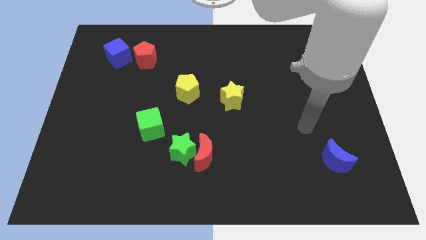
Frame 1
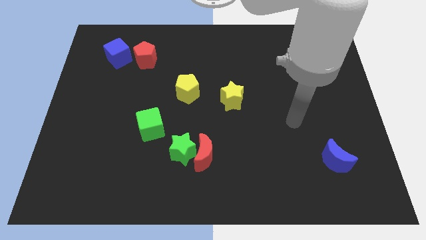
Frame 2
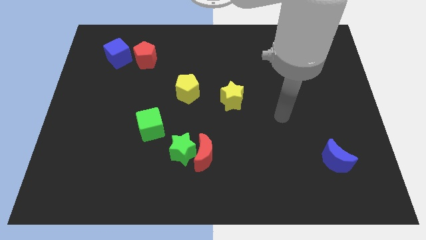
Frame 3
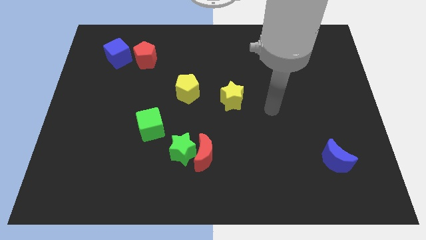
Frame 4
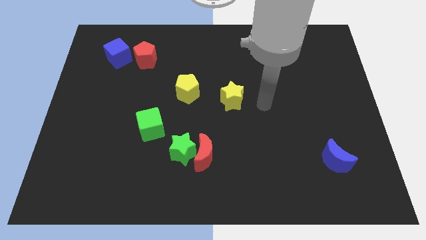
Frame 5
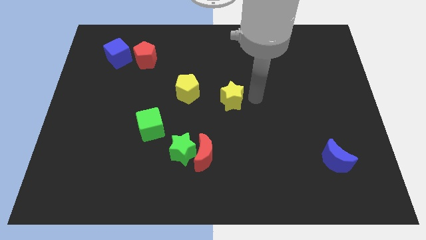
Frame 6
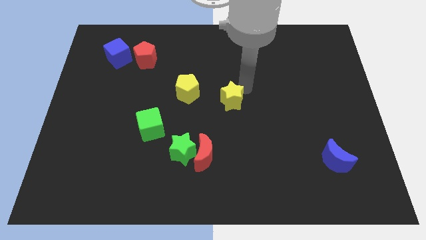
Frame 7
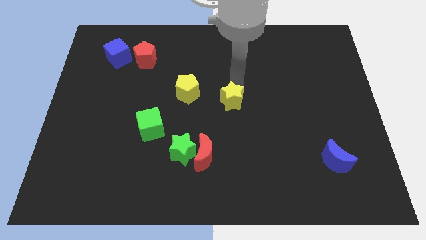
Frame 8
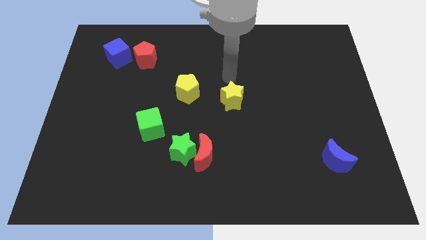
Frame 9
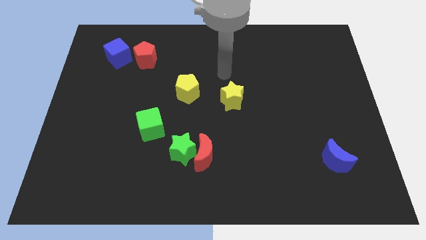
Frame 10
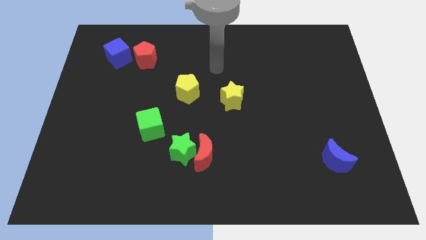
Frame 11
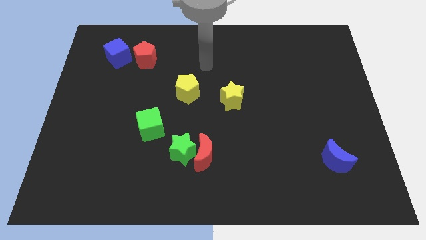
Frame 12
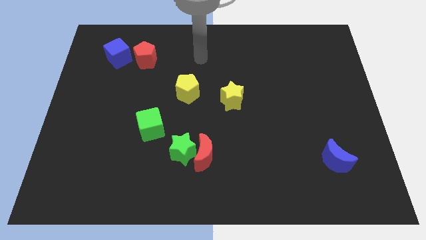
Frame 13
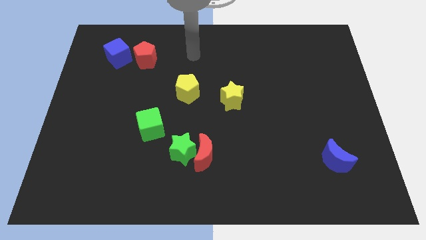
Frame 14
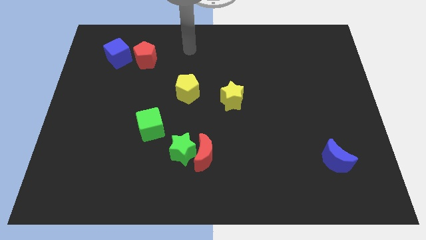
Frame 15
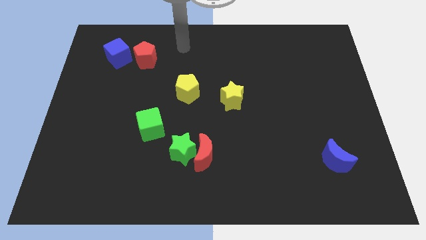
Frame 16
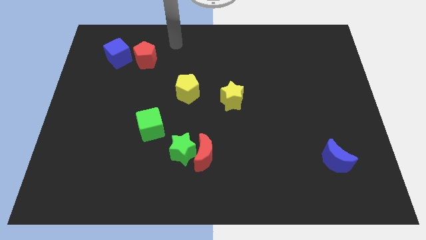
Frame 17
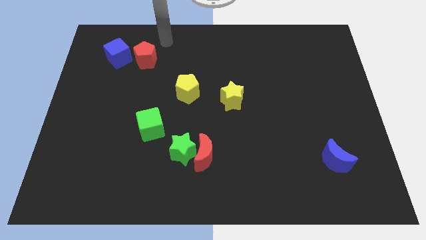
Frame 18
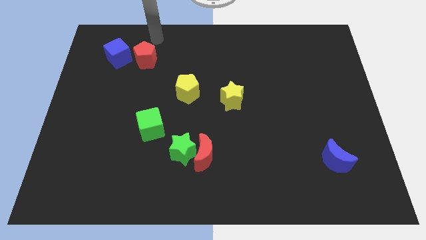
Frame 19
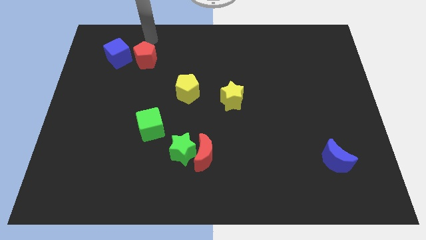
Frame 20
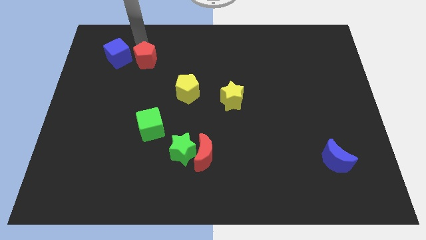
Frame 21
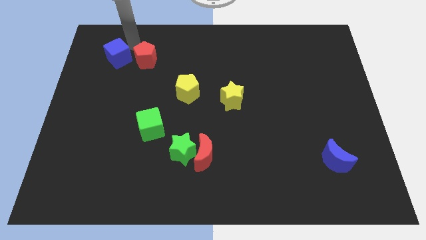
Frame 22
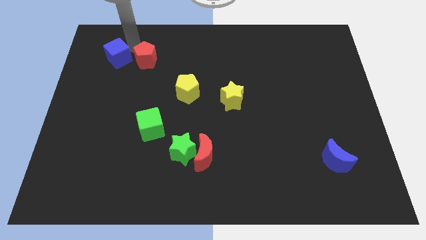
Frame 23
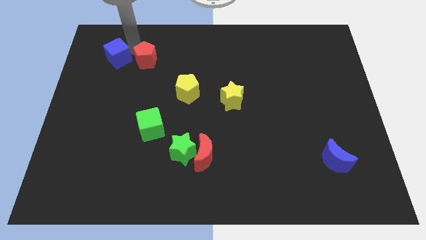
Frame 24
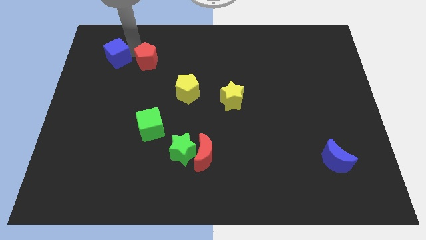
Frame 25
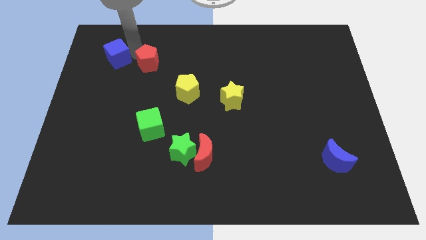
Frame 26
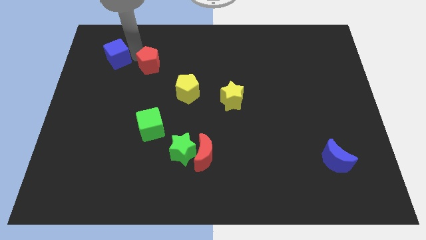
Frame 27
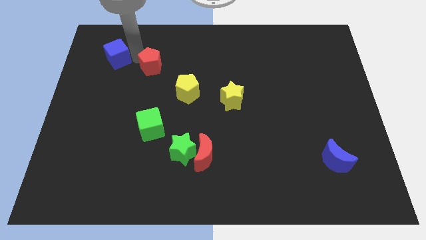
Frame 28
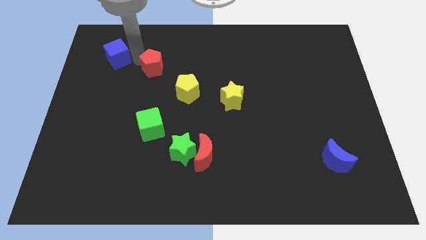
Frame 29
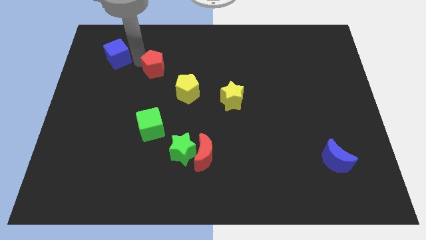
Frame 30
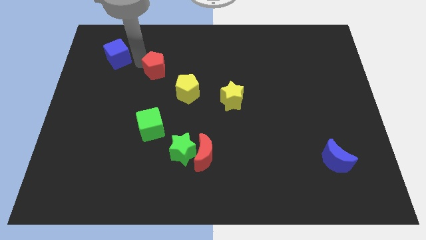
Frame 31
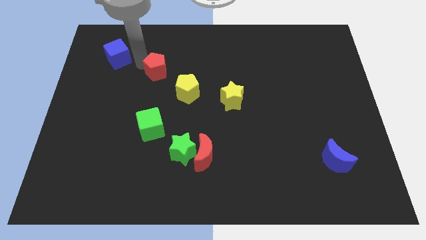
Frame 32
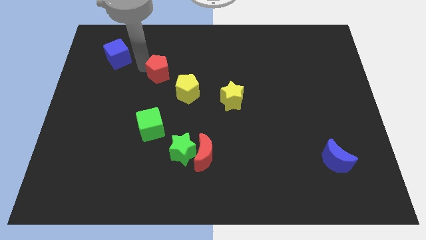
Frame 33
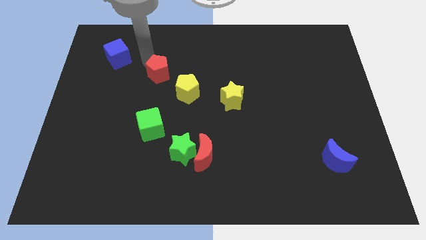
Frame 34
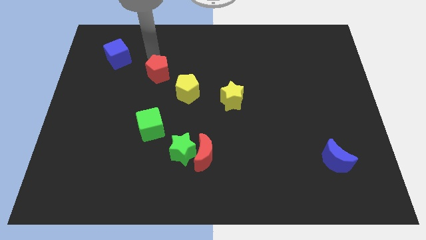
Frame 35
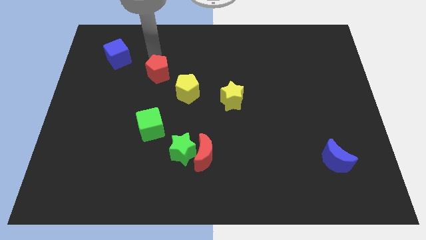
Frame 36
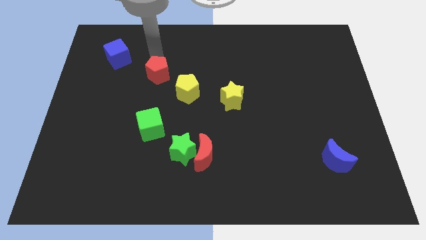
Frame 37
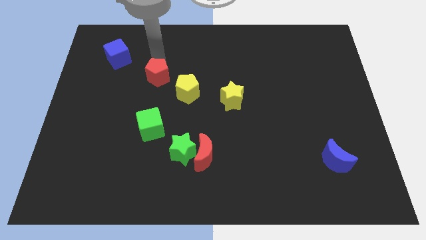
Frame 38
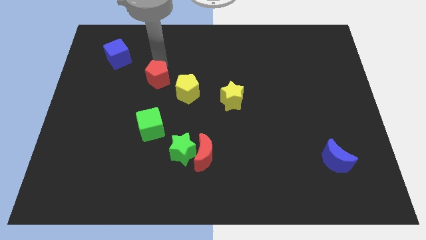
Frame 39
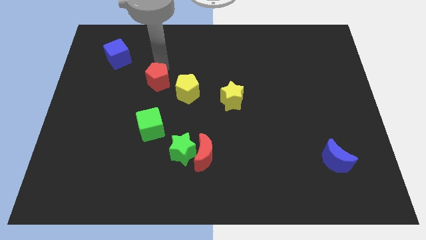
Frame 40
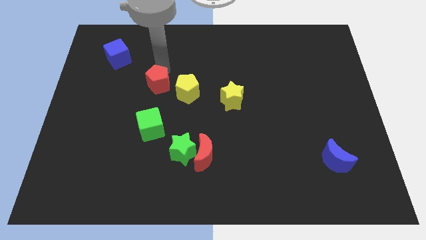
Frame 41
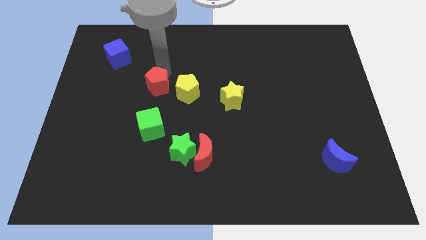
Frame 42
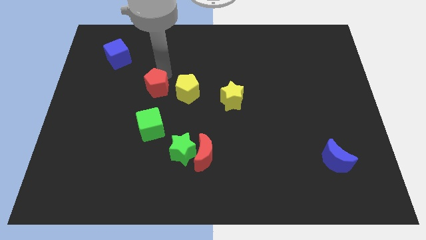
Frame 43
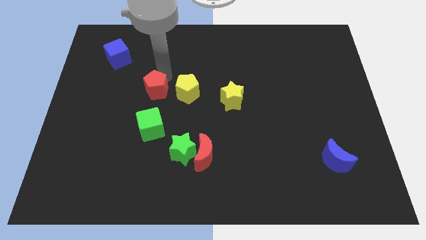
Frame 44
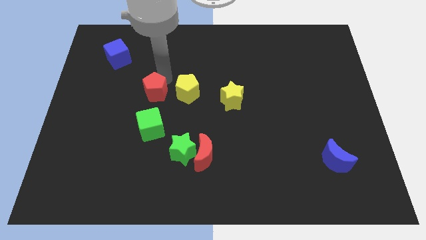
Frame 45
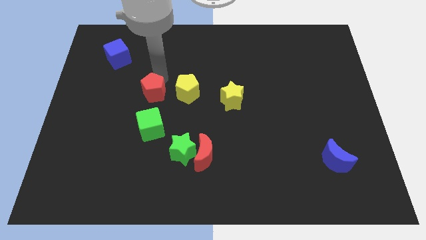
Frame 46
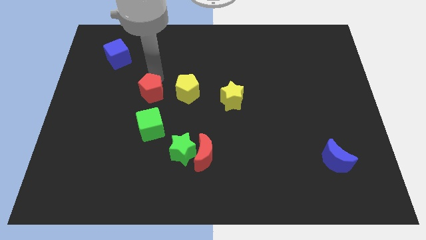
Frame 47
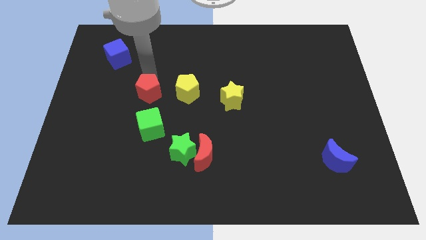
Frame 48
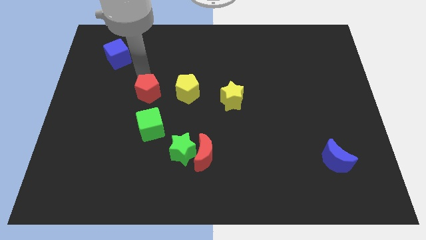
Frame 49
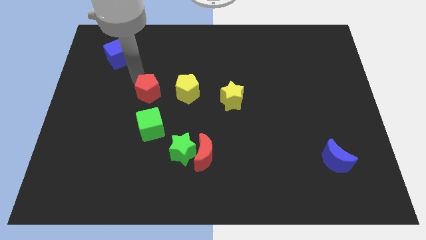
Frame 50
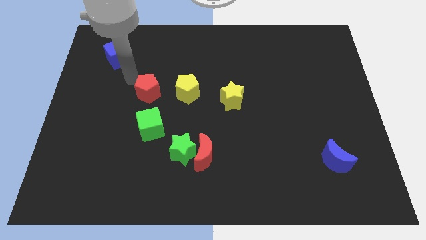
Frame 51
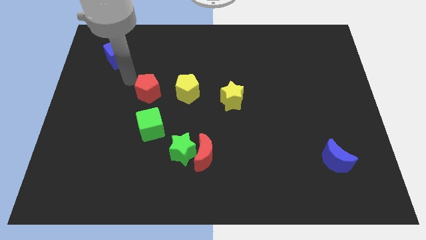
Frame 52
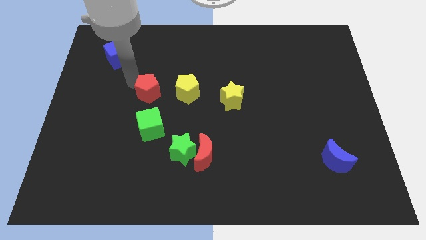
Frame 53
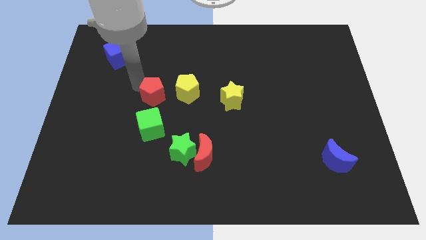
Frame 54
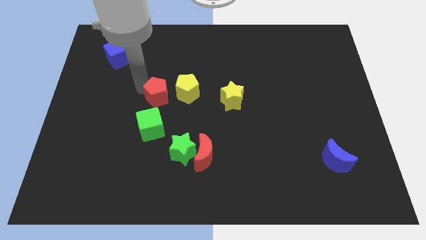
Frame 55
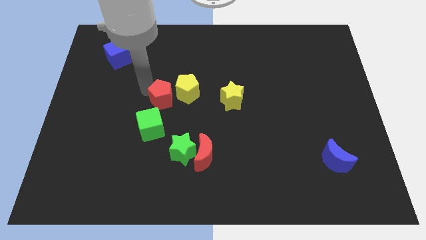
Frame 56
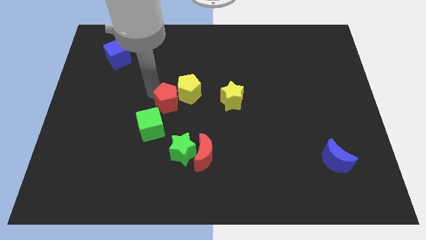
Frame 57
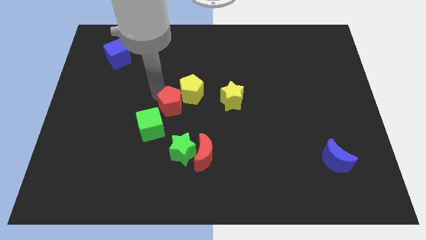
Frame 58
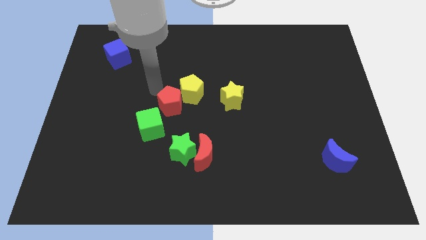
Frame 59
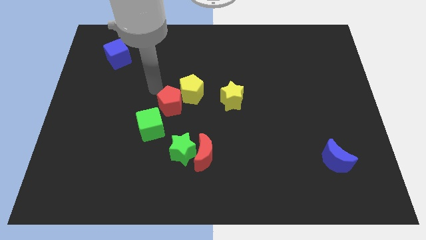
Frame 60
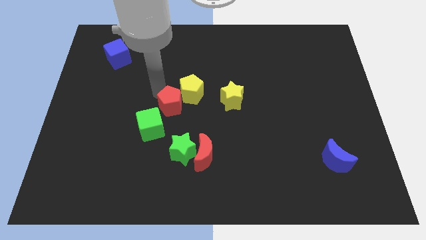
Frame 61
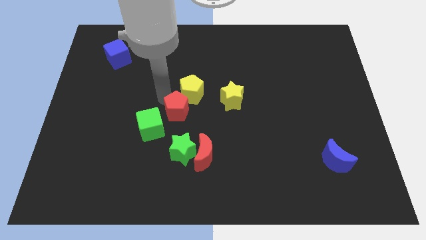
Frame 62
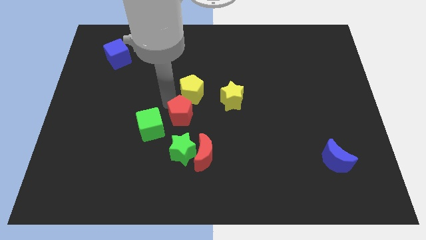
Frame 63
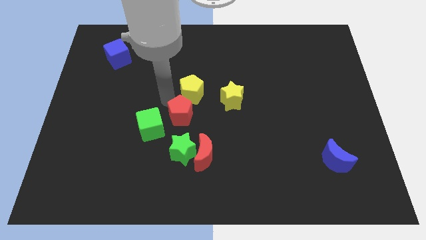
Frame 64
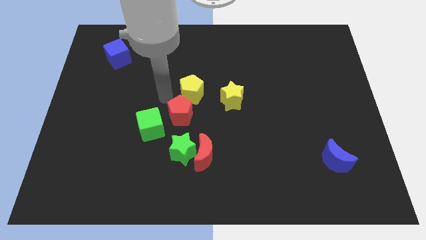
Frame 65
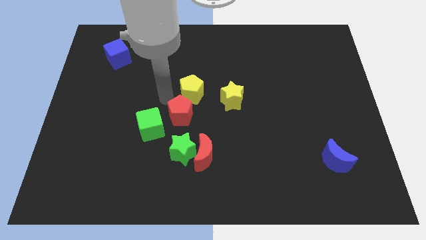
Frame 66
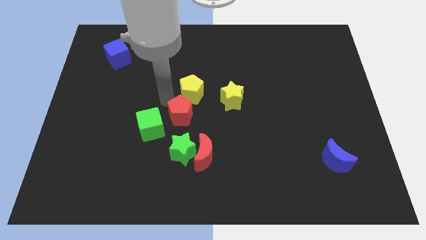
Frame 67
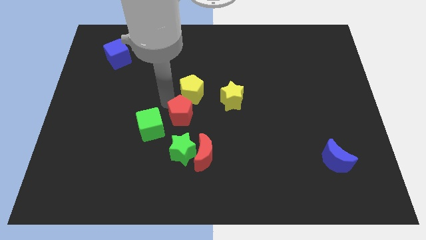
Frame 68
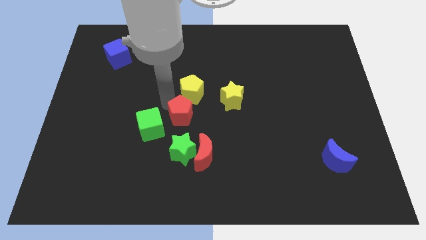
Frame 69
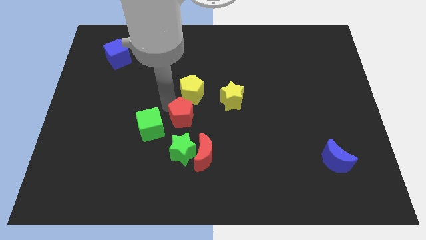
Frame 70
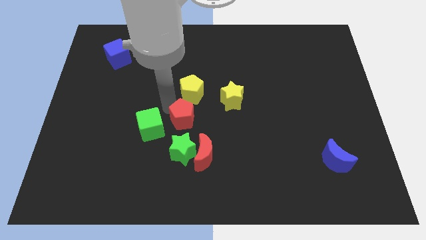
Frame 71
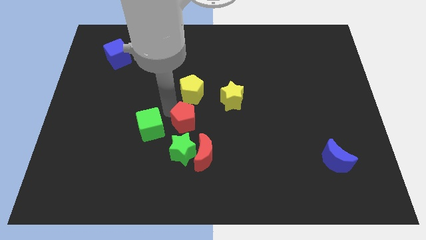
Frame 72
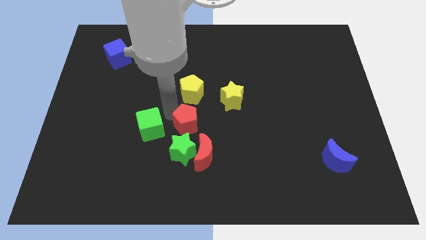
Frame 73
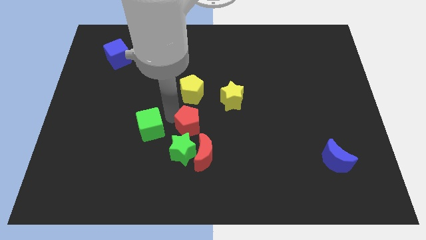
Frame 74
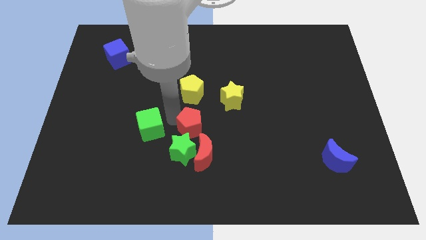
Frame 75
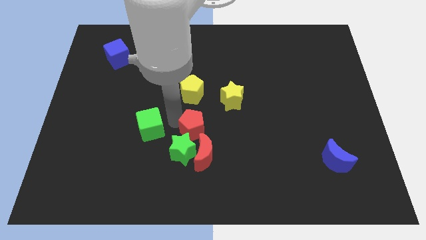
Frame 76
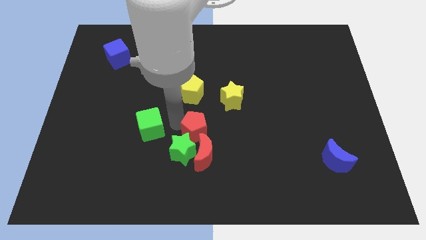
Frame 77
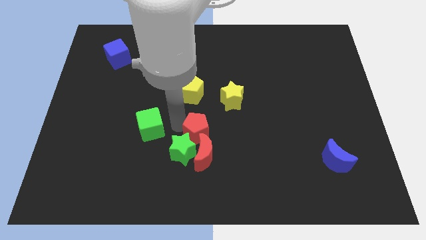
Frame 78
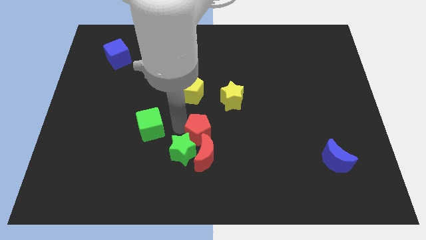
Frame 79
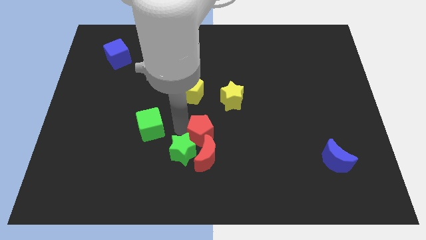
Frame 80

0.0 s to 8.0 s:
move the red pentagon right of the green star
